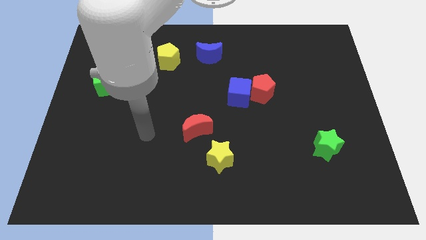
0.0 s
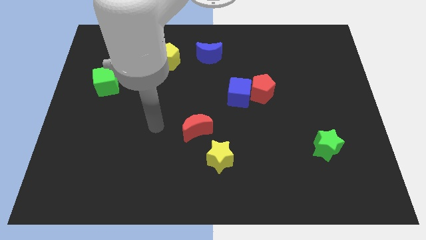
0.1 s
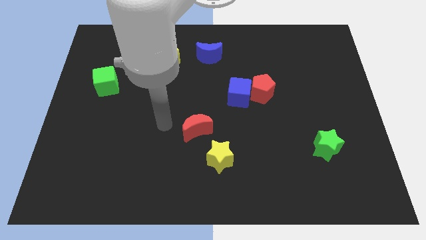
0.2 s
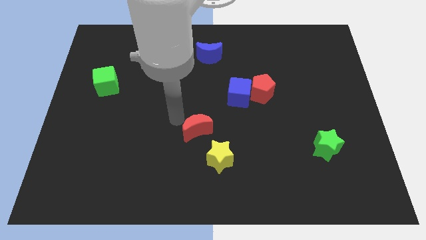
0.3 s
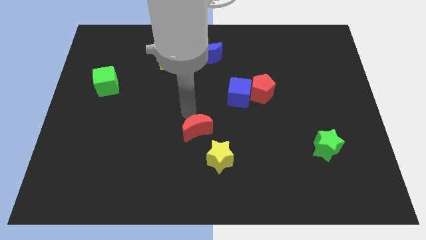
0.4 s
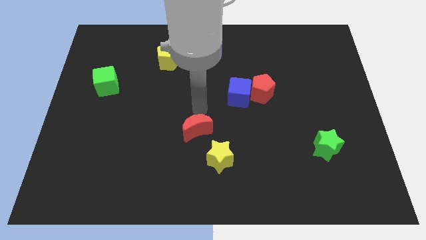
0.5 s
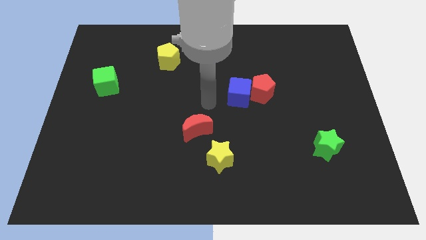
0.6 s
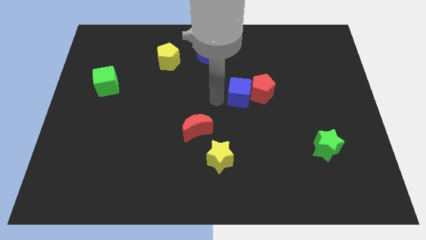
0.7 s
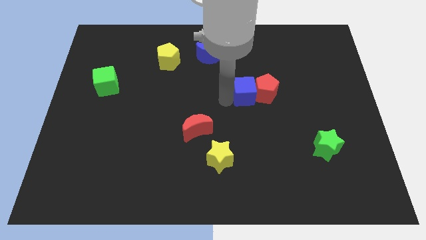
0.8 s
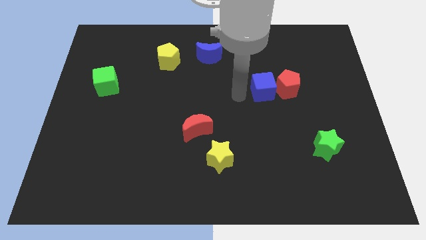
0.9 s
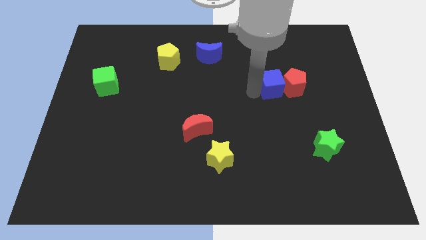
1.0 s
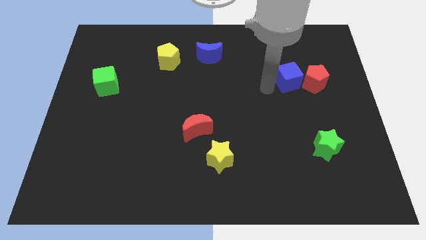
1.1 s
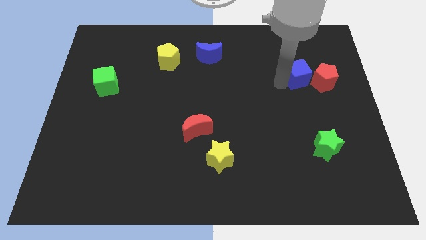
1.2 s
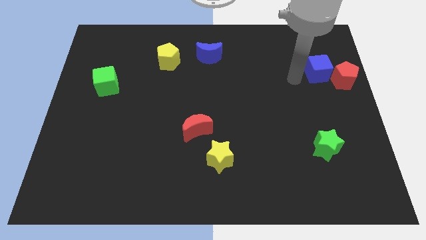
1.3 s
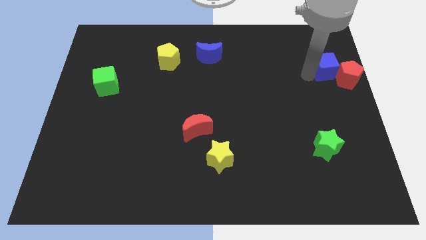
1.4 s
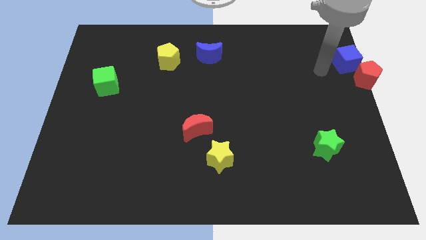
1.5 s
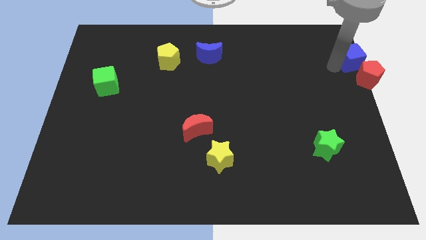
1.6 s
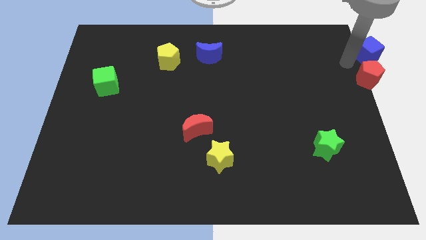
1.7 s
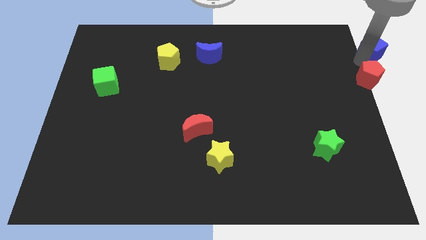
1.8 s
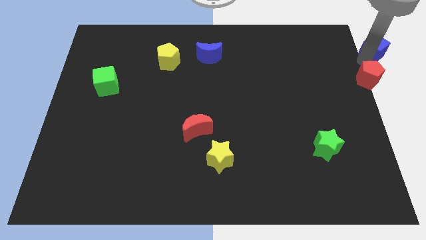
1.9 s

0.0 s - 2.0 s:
pull the red pentagon apart from the blue cube

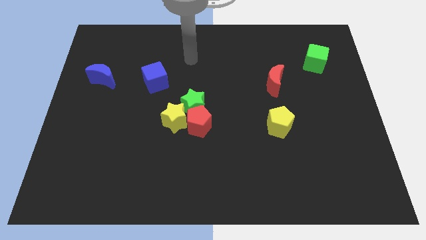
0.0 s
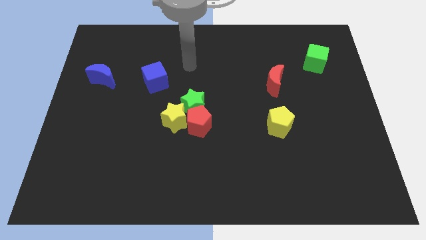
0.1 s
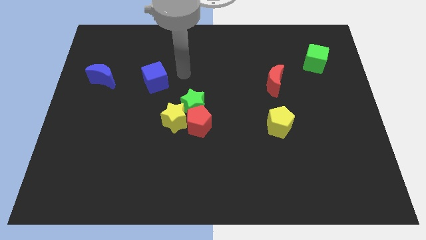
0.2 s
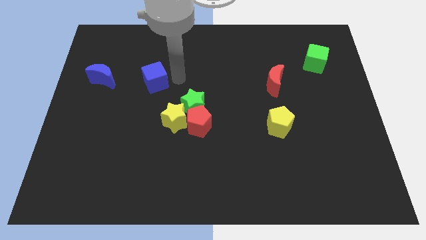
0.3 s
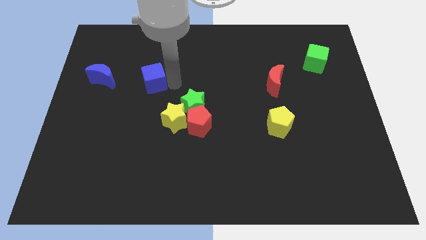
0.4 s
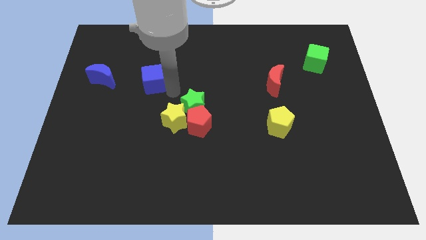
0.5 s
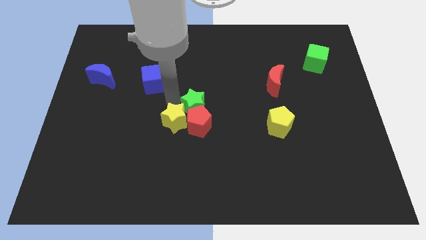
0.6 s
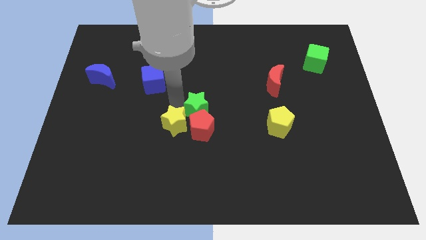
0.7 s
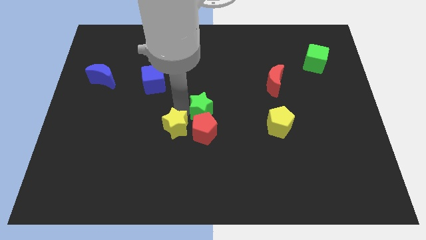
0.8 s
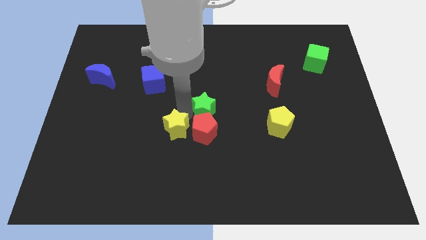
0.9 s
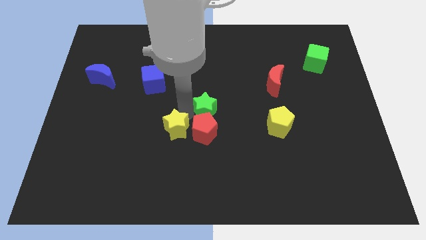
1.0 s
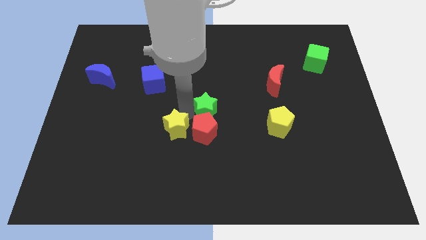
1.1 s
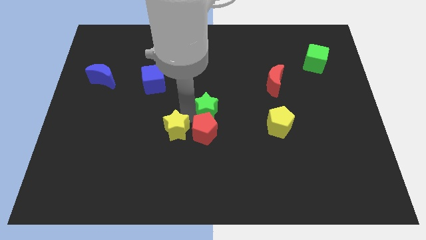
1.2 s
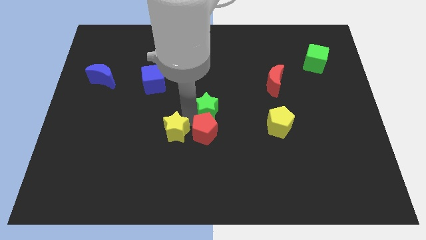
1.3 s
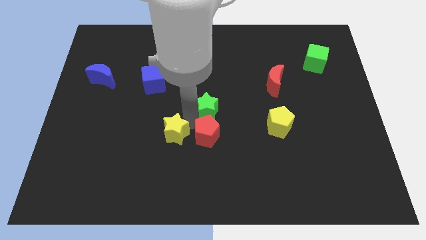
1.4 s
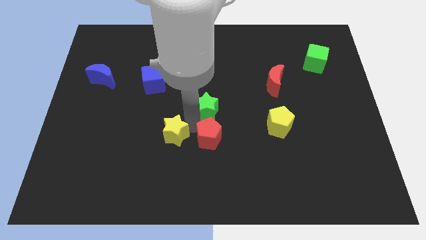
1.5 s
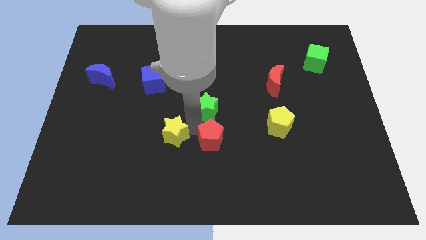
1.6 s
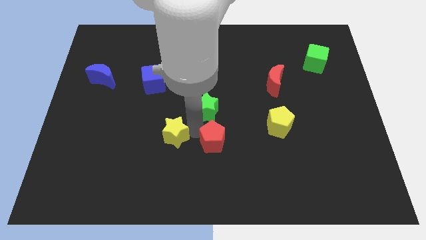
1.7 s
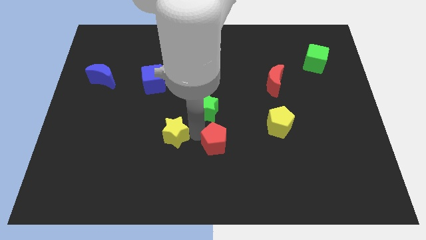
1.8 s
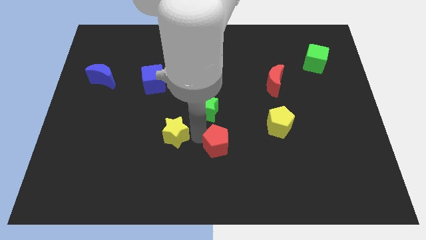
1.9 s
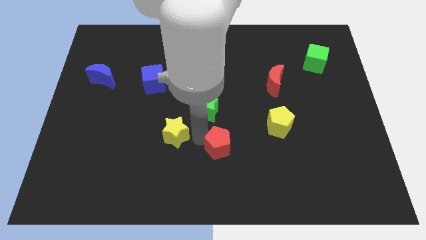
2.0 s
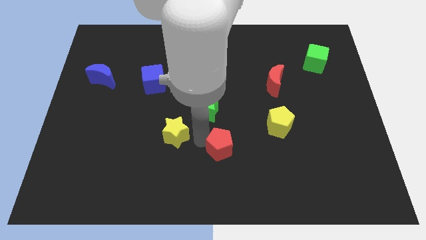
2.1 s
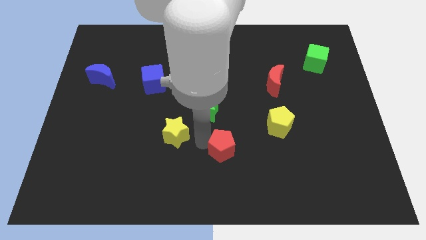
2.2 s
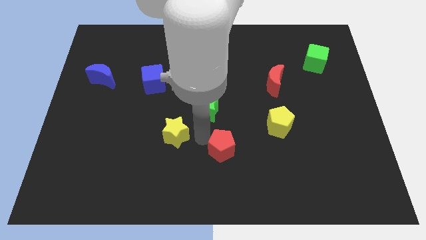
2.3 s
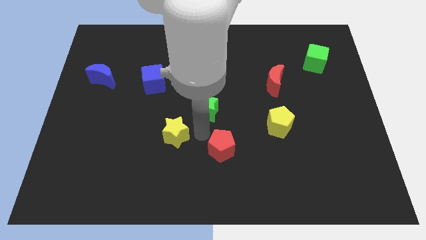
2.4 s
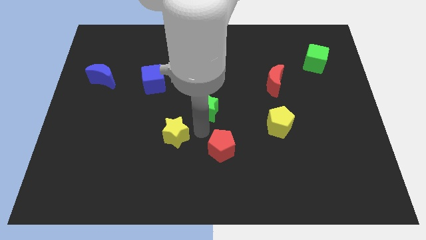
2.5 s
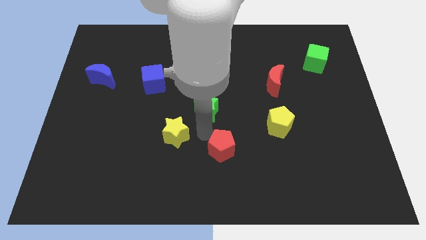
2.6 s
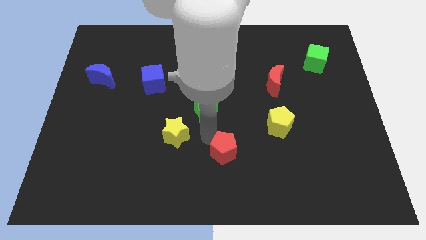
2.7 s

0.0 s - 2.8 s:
pull the red pentagon apart from the green star and yellow star

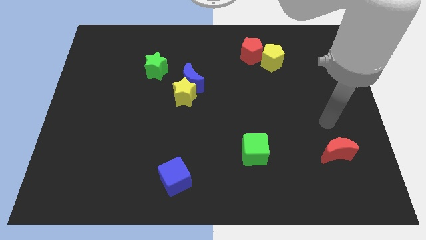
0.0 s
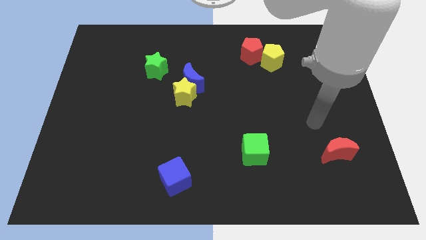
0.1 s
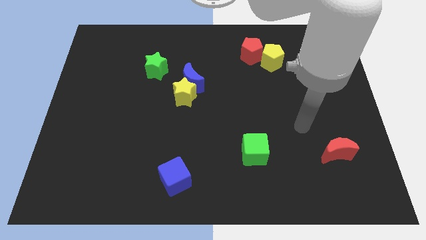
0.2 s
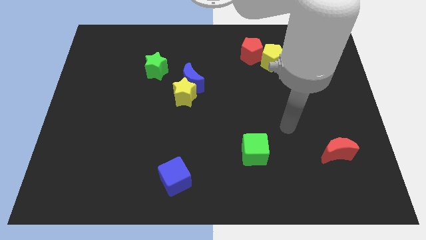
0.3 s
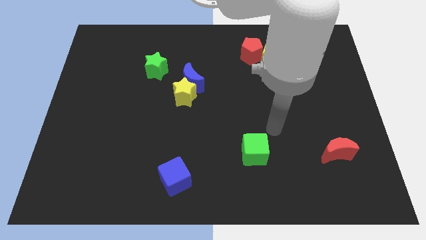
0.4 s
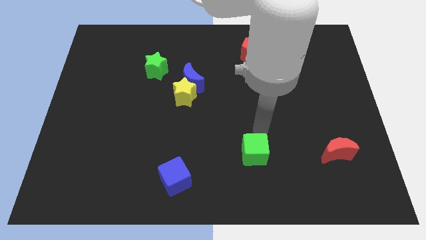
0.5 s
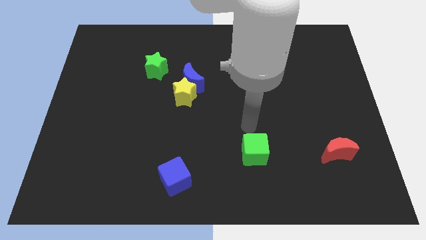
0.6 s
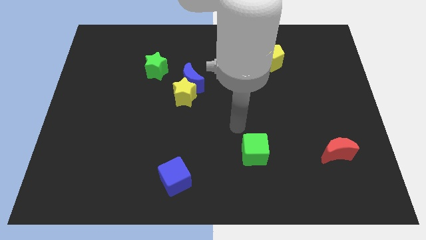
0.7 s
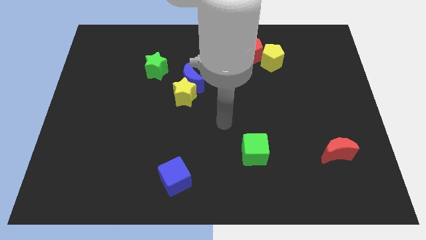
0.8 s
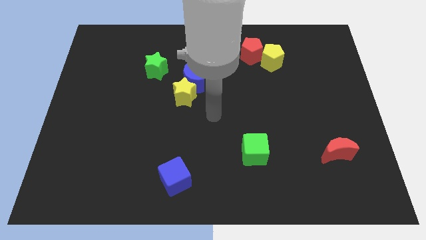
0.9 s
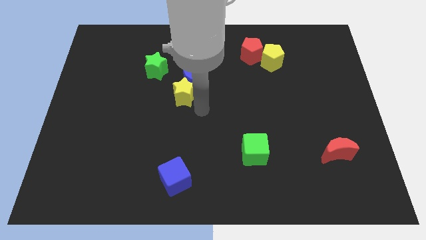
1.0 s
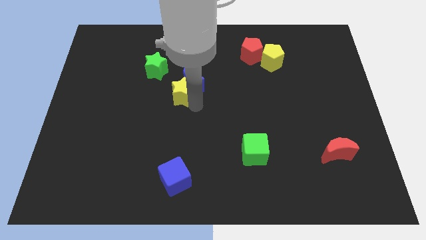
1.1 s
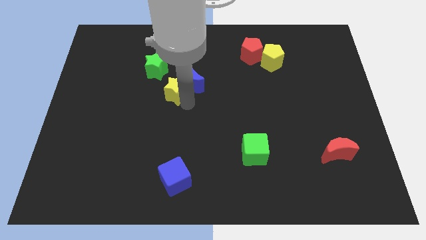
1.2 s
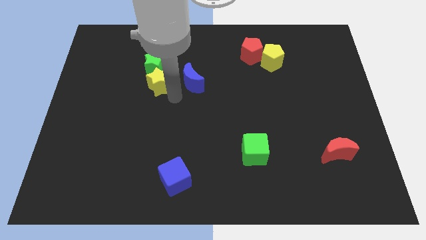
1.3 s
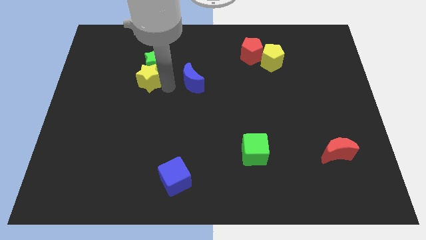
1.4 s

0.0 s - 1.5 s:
pull the blue moon apart from the yellow star

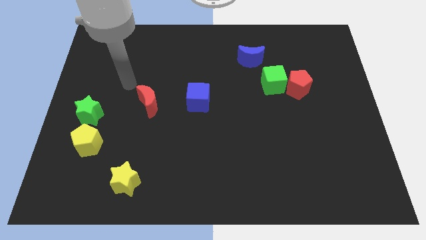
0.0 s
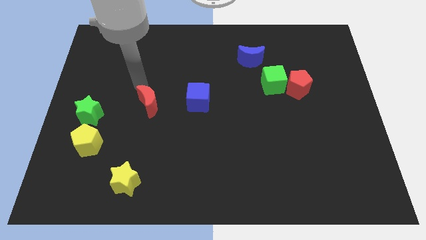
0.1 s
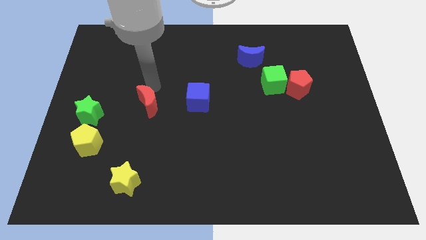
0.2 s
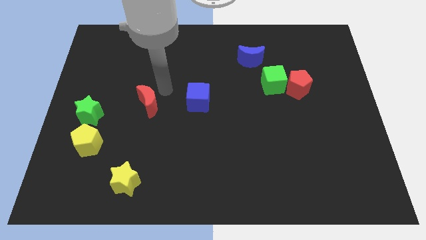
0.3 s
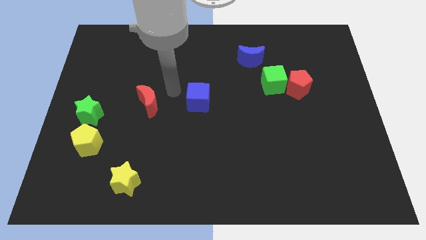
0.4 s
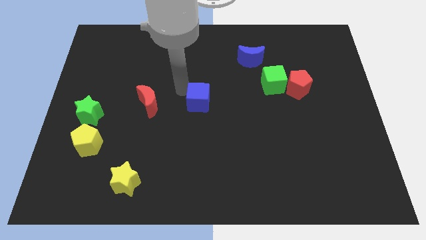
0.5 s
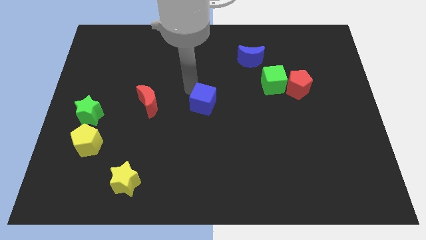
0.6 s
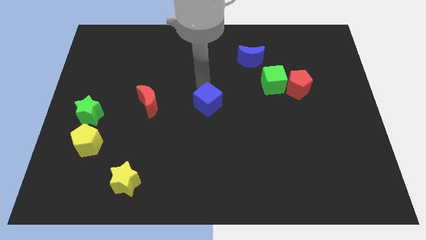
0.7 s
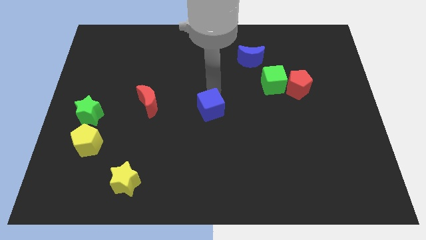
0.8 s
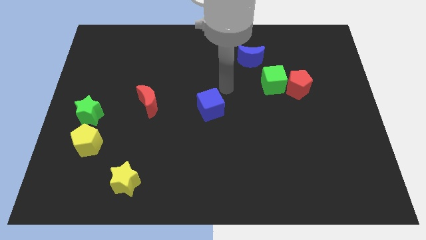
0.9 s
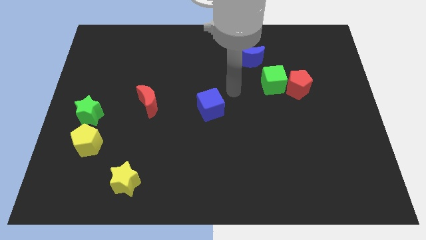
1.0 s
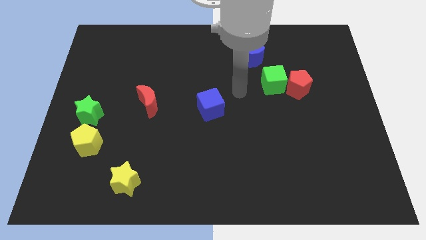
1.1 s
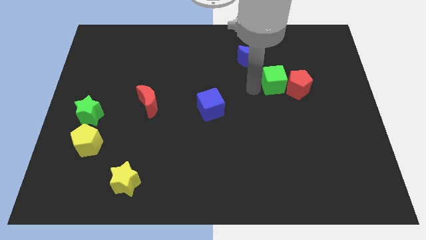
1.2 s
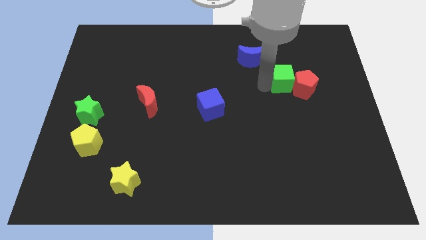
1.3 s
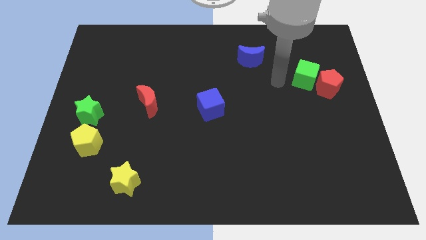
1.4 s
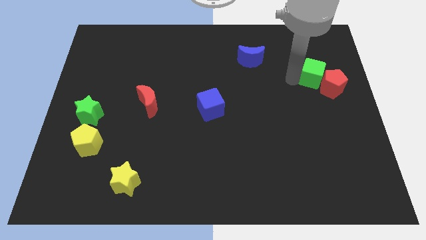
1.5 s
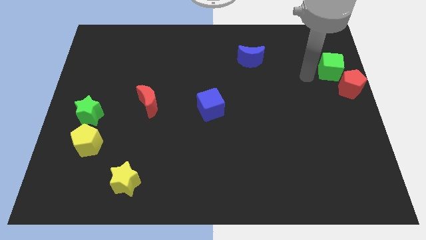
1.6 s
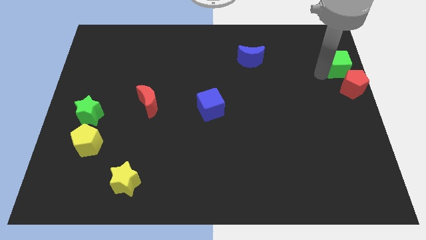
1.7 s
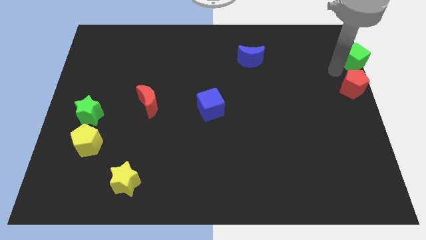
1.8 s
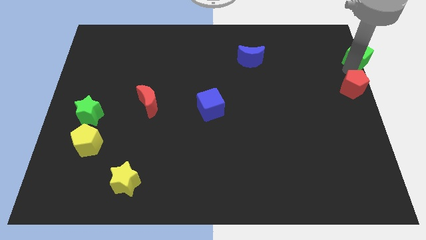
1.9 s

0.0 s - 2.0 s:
move the red pentagon away from the green cube

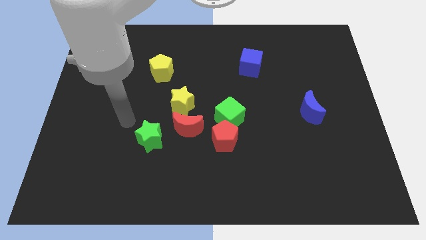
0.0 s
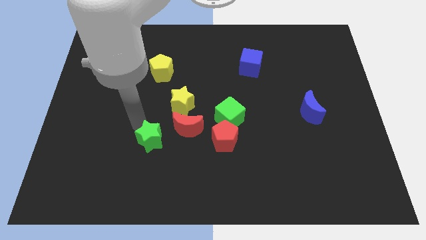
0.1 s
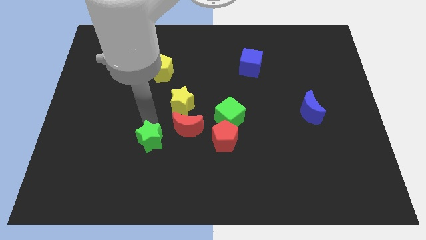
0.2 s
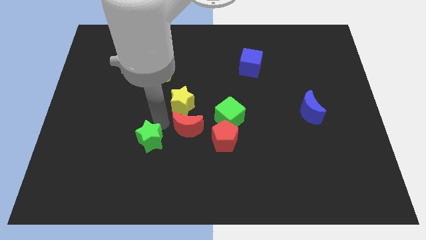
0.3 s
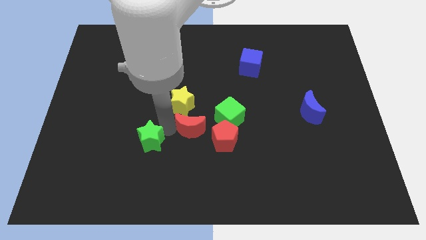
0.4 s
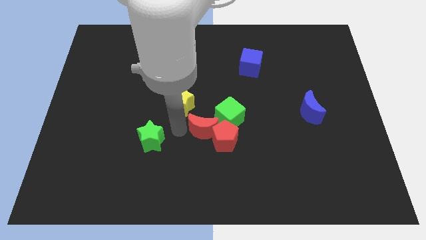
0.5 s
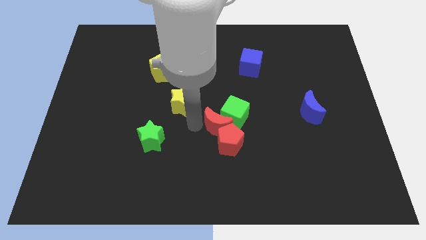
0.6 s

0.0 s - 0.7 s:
pull the yellow star apart from the red moon

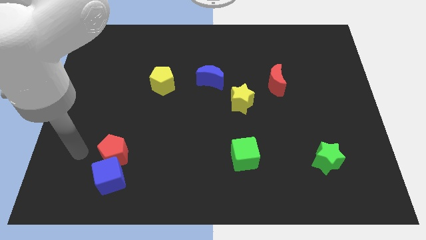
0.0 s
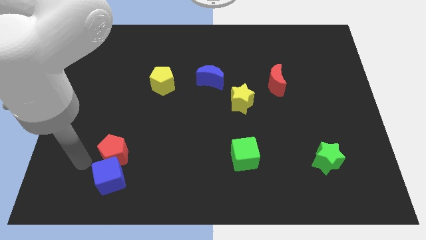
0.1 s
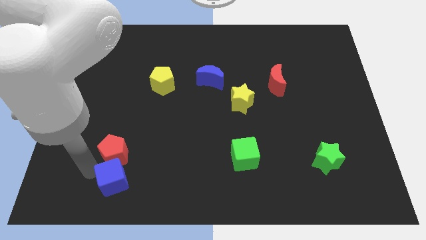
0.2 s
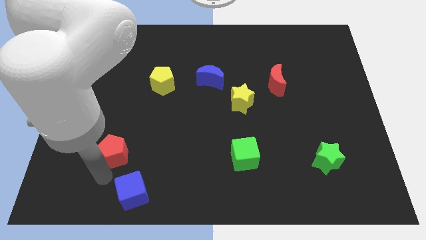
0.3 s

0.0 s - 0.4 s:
separate the red pentagon from the blue cube
